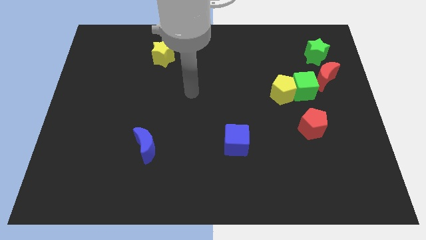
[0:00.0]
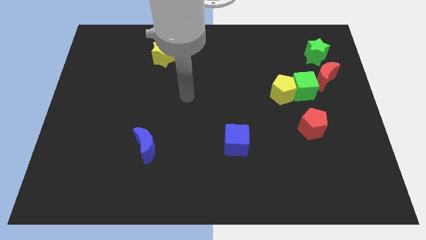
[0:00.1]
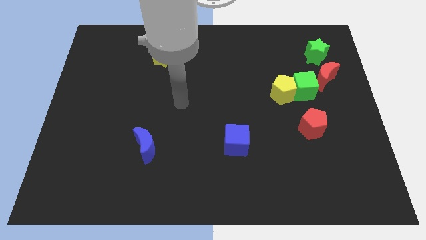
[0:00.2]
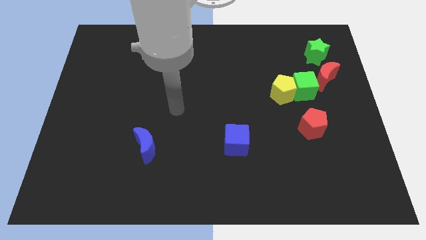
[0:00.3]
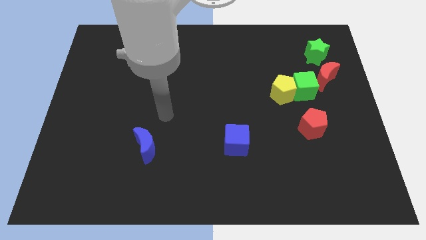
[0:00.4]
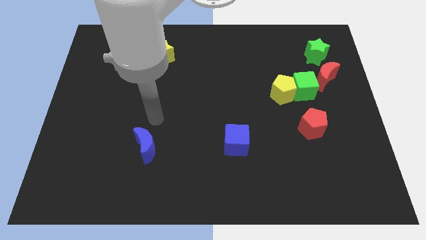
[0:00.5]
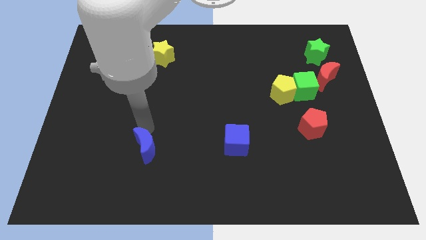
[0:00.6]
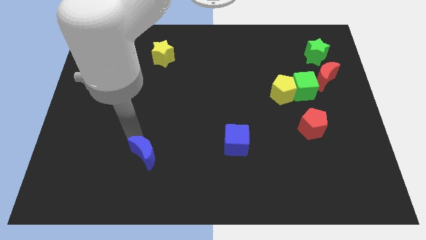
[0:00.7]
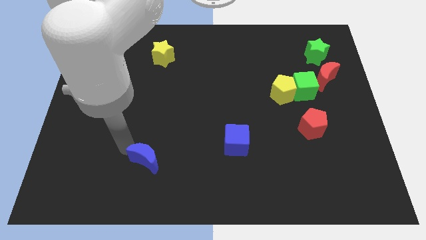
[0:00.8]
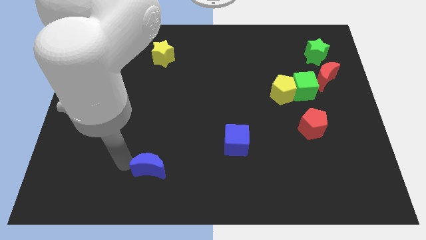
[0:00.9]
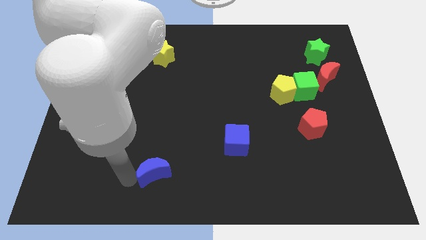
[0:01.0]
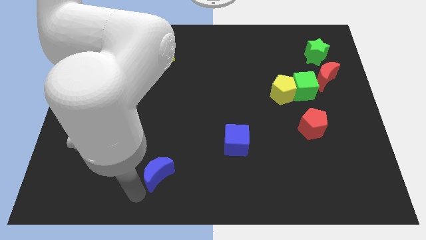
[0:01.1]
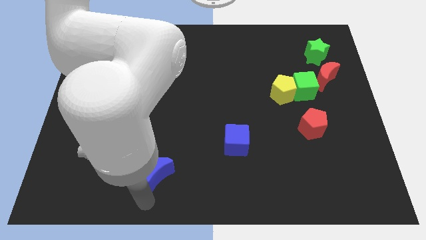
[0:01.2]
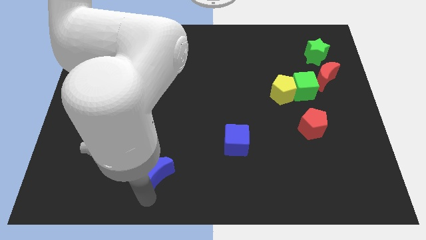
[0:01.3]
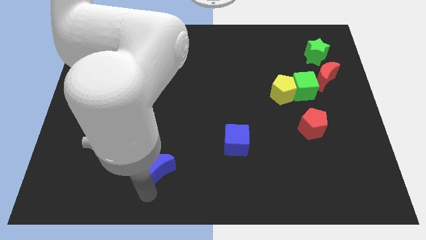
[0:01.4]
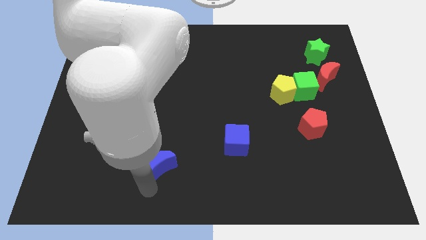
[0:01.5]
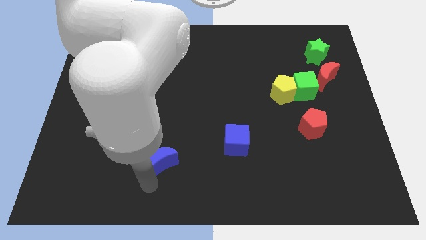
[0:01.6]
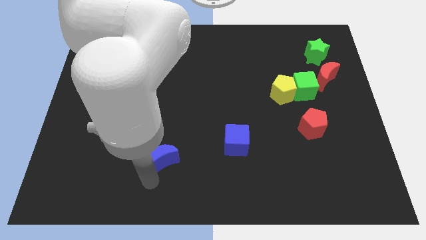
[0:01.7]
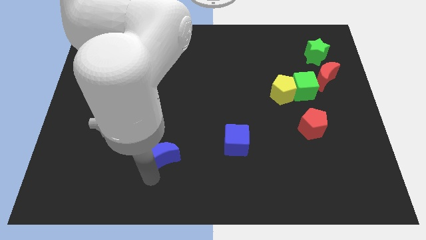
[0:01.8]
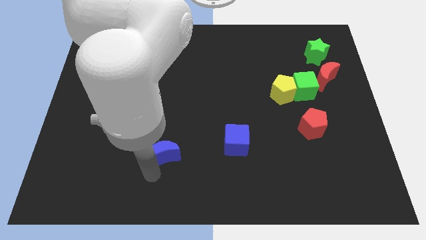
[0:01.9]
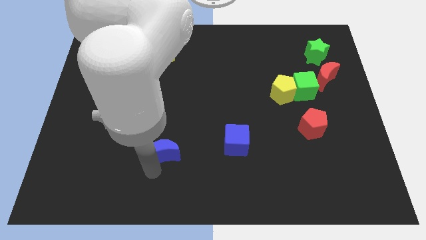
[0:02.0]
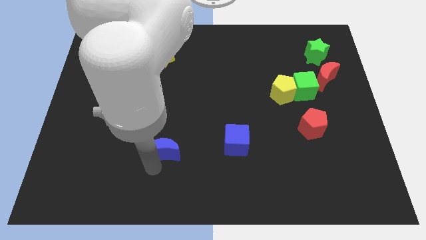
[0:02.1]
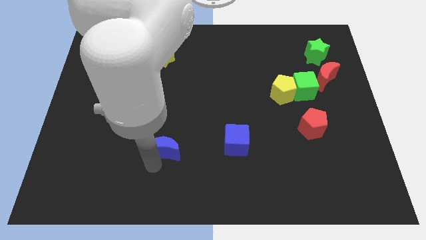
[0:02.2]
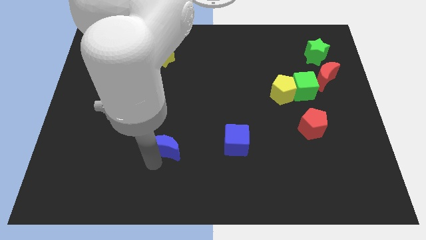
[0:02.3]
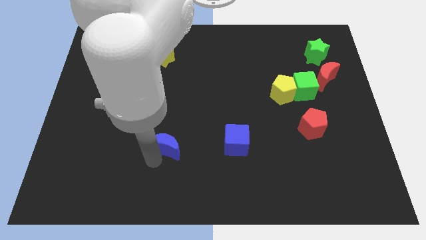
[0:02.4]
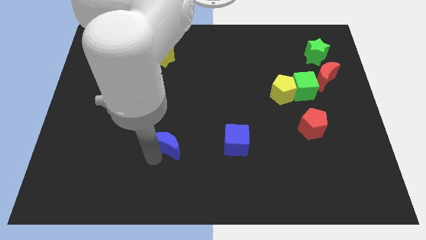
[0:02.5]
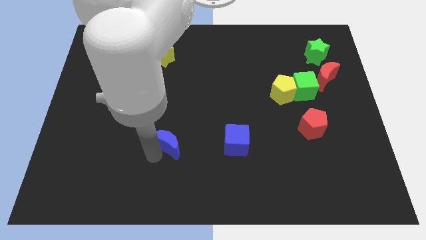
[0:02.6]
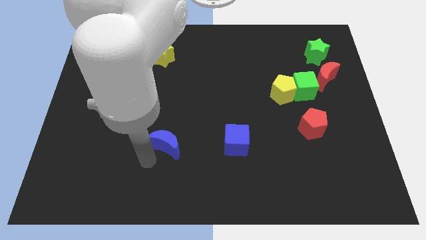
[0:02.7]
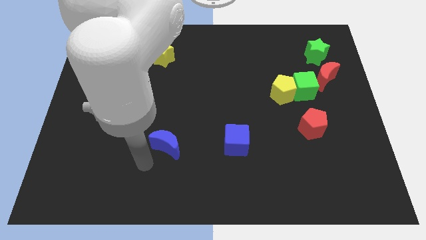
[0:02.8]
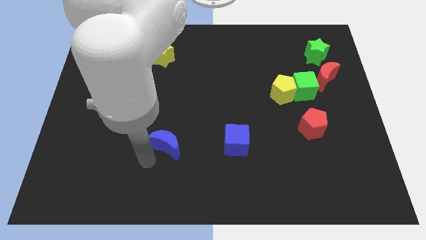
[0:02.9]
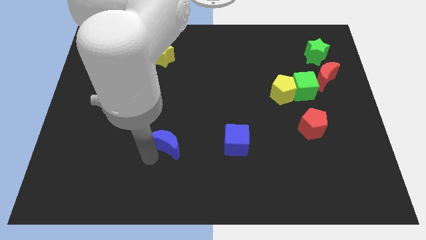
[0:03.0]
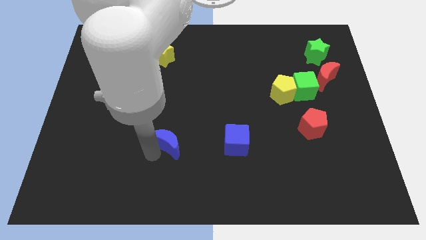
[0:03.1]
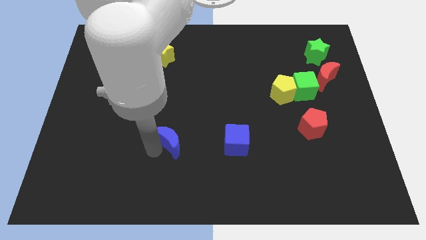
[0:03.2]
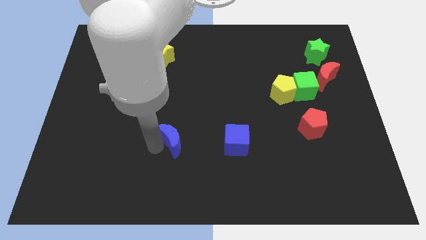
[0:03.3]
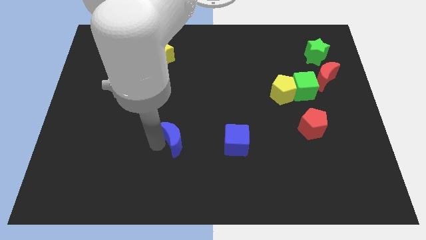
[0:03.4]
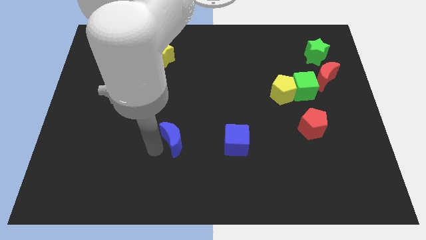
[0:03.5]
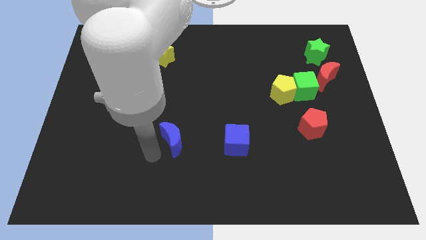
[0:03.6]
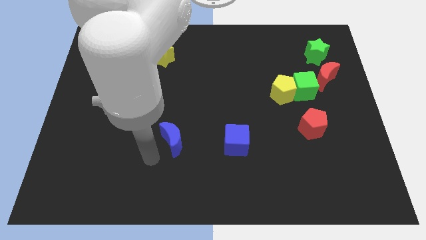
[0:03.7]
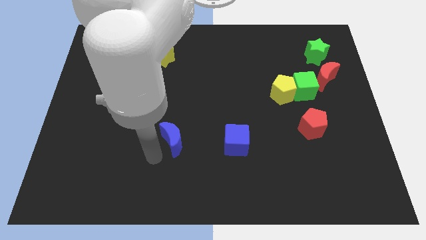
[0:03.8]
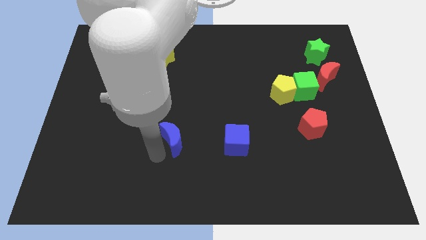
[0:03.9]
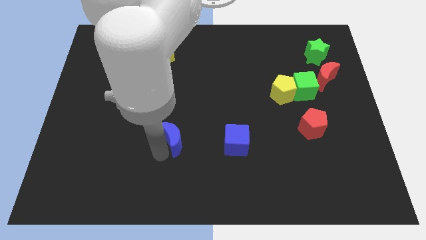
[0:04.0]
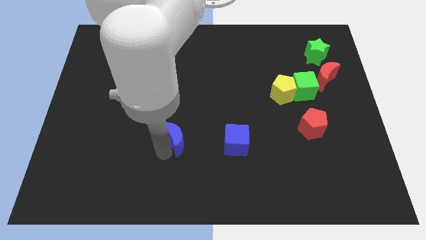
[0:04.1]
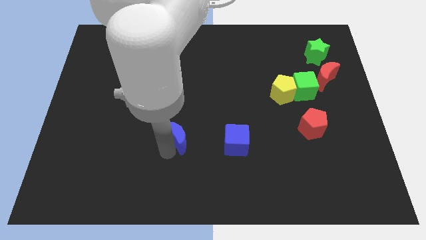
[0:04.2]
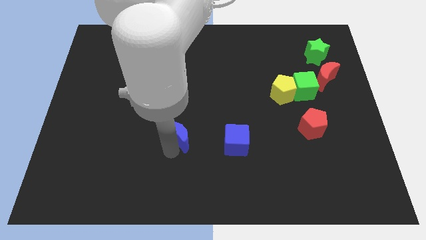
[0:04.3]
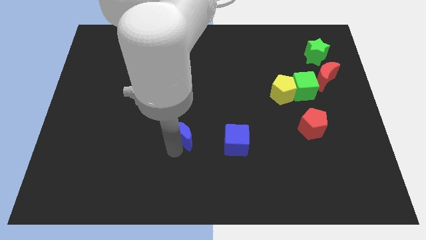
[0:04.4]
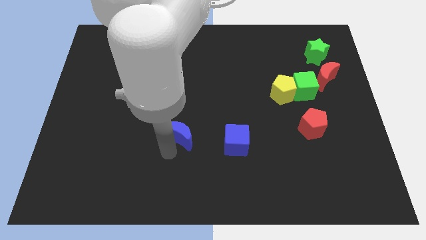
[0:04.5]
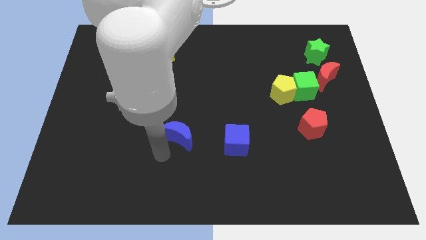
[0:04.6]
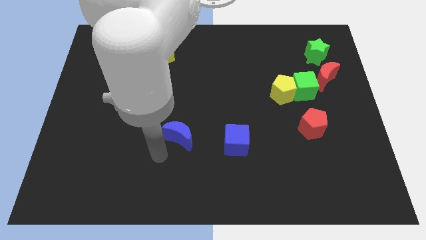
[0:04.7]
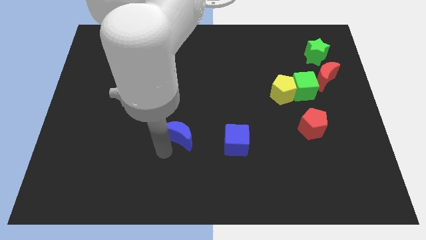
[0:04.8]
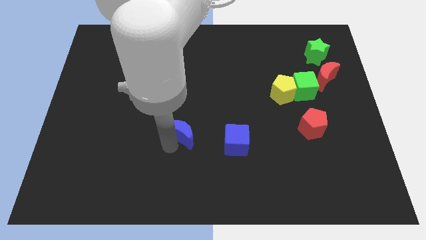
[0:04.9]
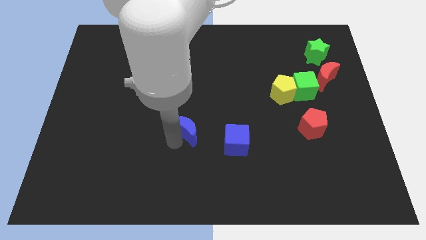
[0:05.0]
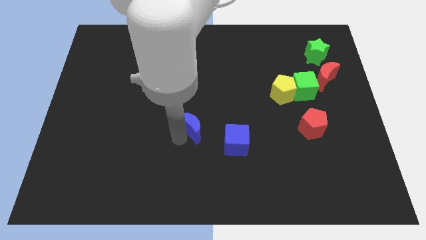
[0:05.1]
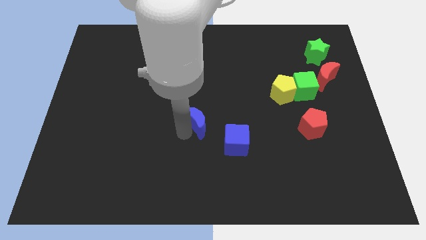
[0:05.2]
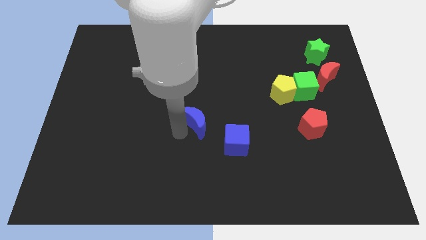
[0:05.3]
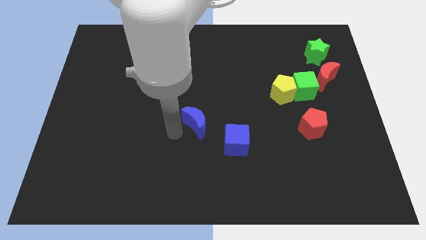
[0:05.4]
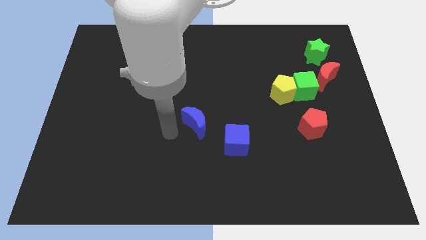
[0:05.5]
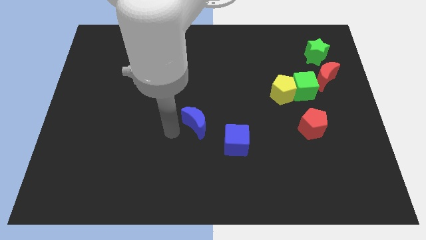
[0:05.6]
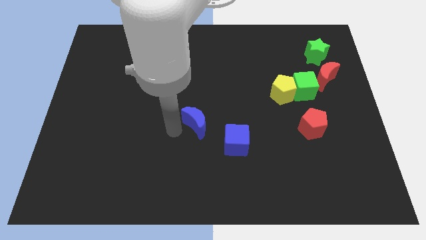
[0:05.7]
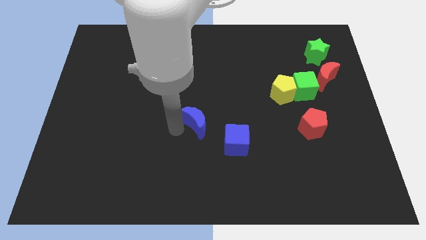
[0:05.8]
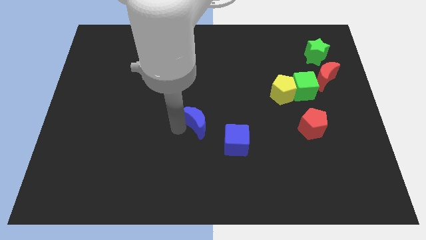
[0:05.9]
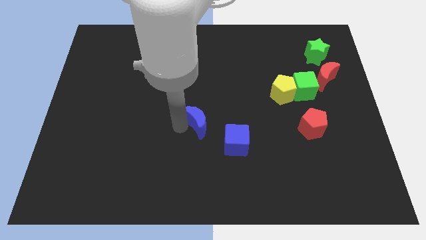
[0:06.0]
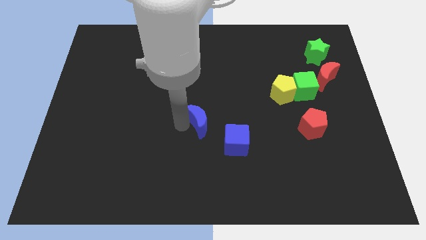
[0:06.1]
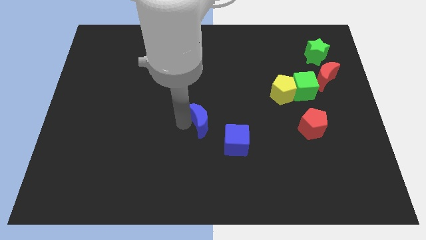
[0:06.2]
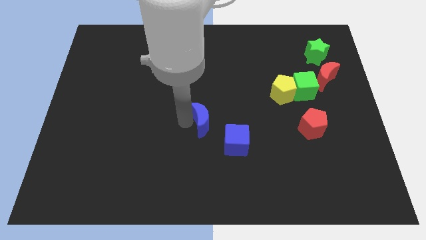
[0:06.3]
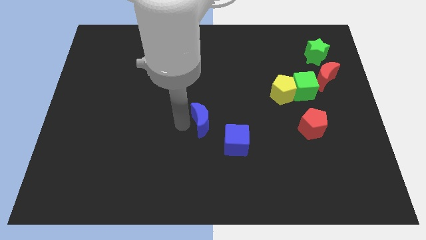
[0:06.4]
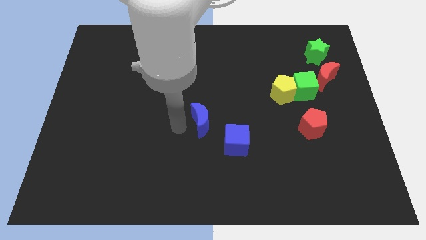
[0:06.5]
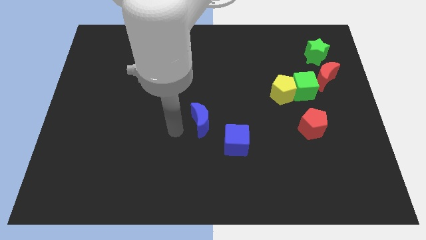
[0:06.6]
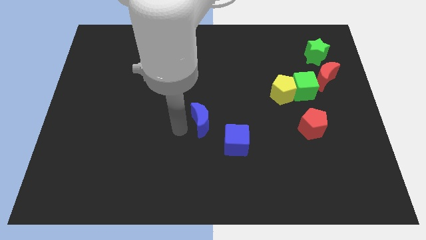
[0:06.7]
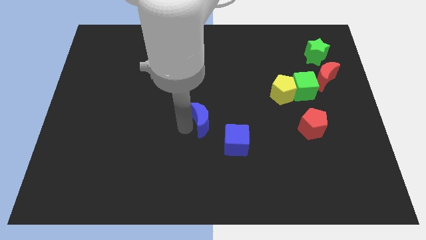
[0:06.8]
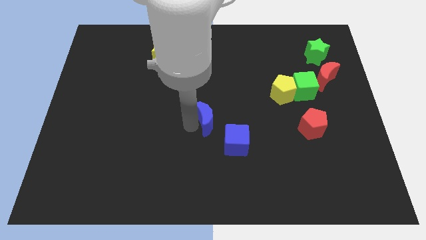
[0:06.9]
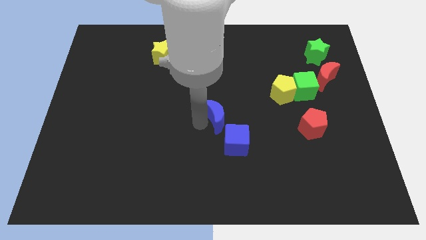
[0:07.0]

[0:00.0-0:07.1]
slide the blue moon to the top of the blue cube

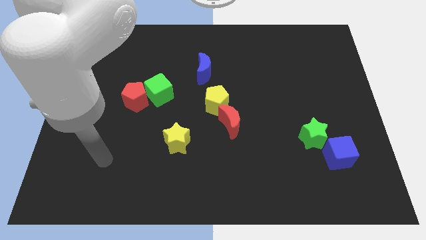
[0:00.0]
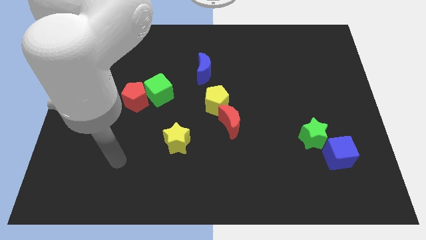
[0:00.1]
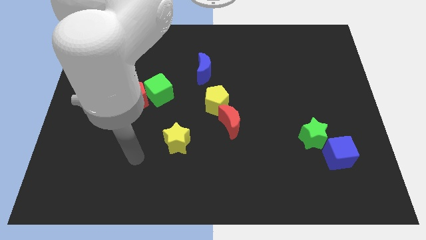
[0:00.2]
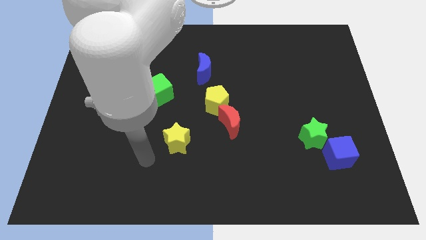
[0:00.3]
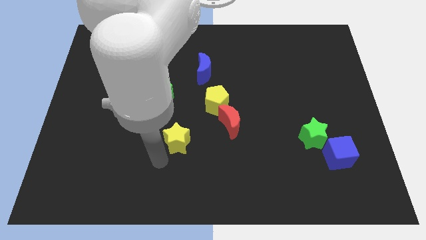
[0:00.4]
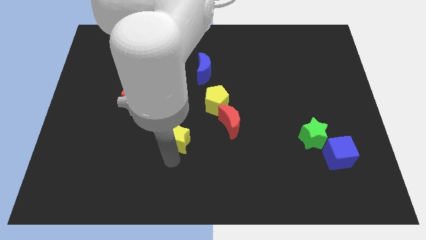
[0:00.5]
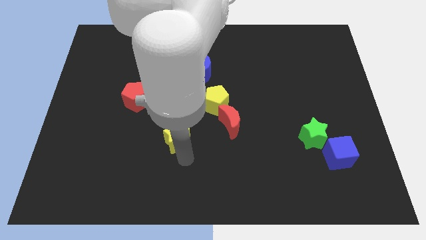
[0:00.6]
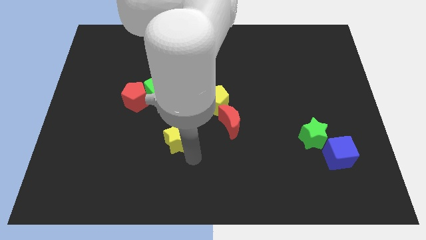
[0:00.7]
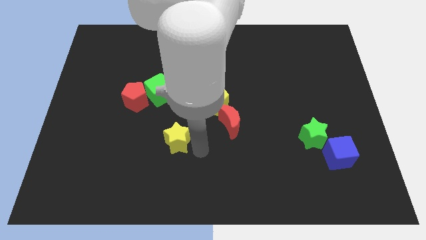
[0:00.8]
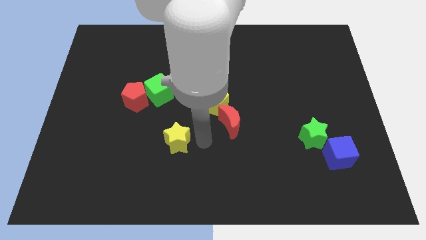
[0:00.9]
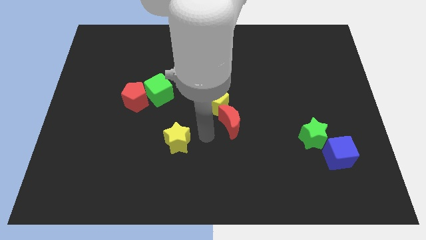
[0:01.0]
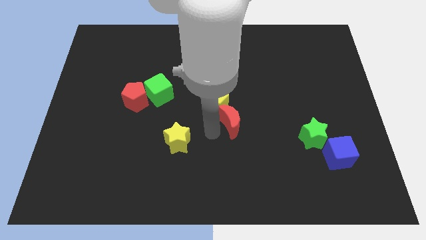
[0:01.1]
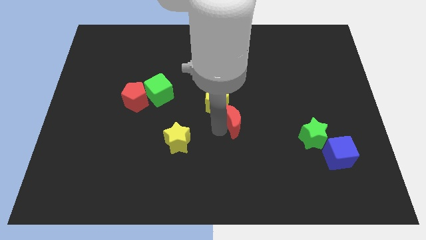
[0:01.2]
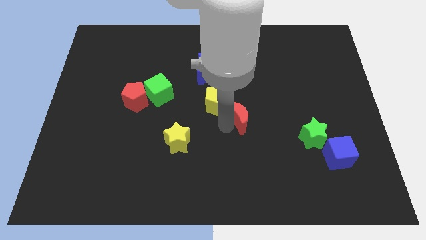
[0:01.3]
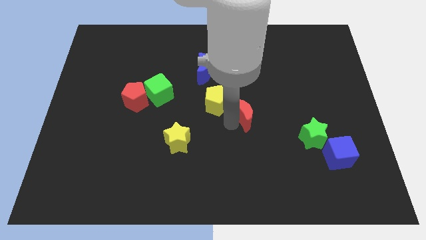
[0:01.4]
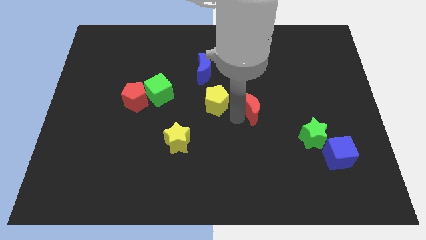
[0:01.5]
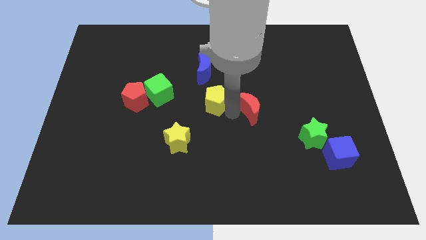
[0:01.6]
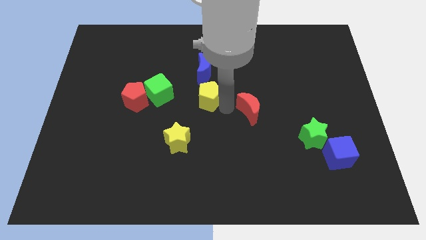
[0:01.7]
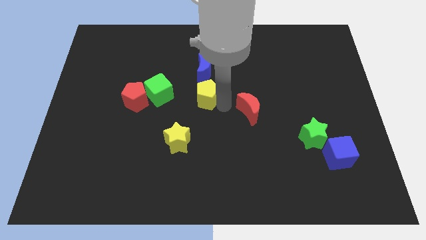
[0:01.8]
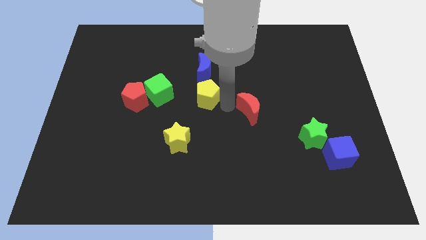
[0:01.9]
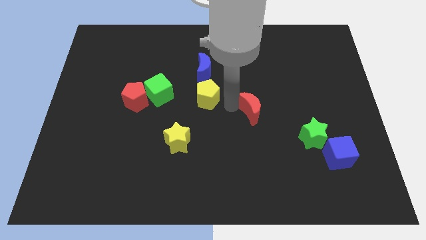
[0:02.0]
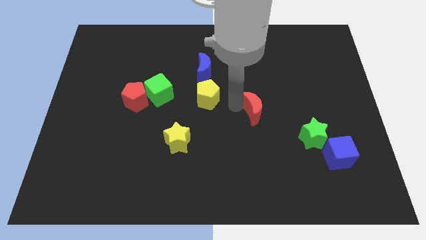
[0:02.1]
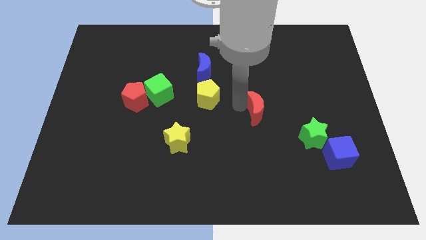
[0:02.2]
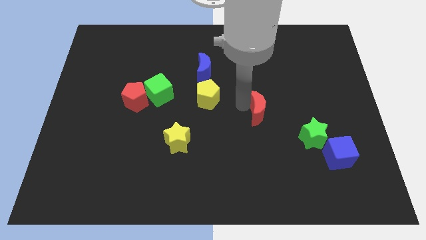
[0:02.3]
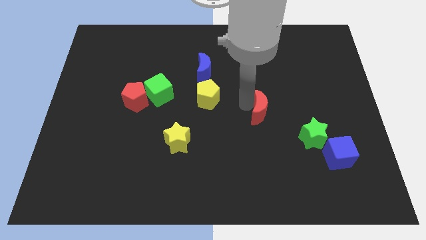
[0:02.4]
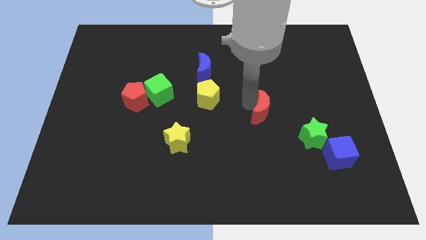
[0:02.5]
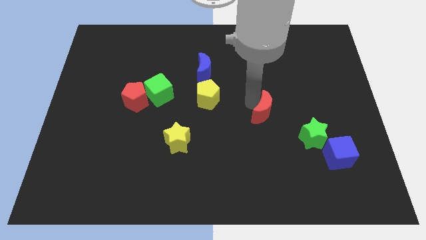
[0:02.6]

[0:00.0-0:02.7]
slide the red moon to the top left side of the green star
